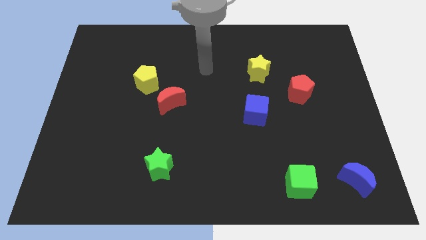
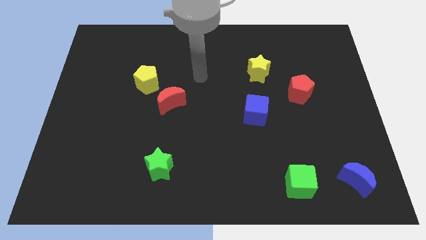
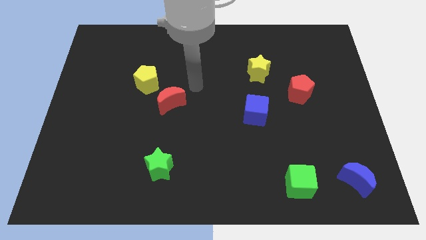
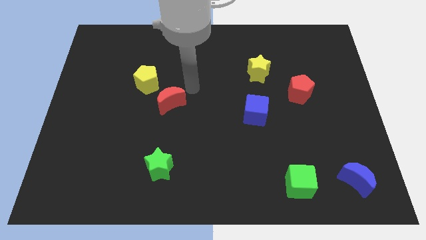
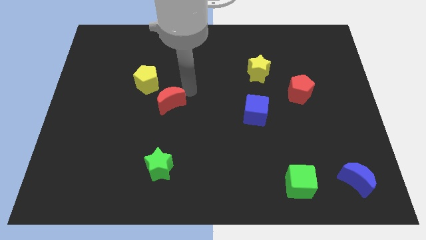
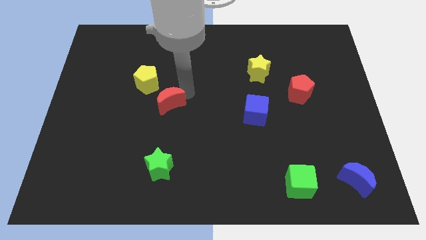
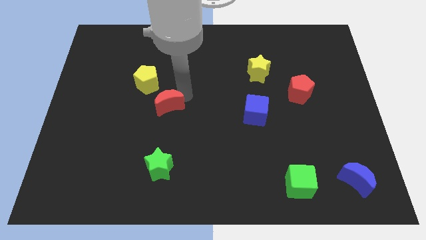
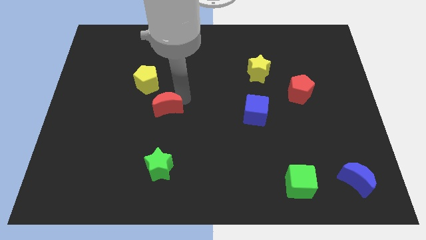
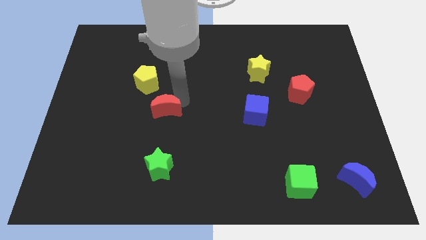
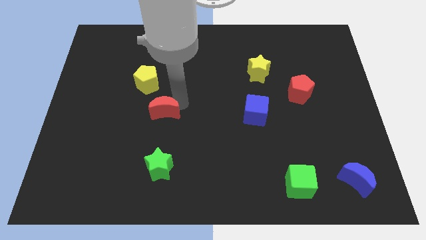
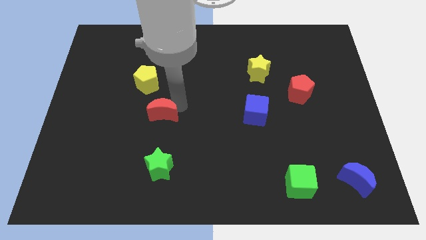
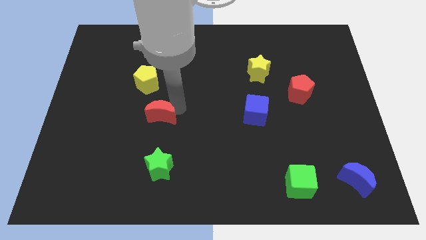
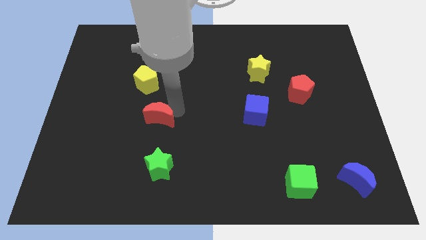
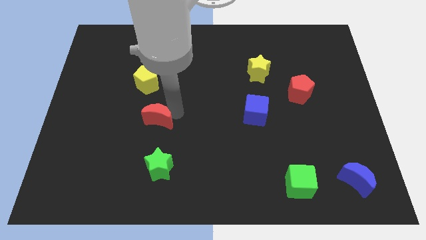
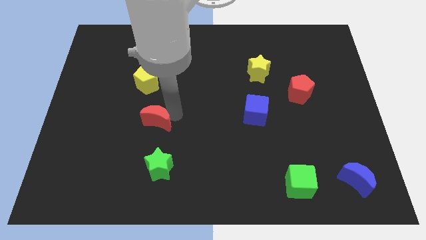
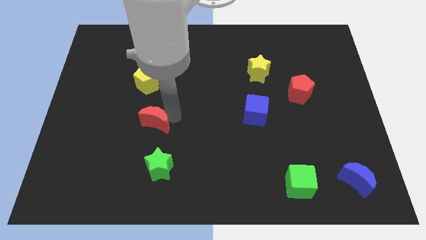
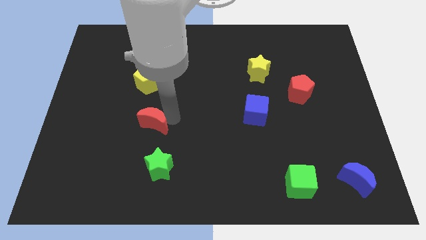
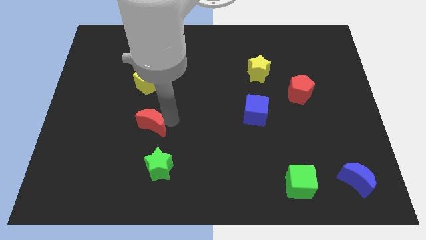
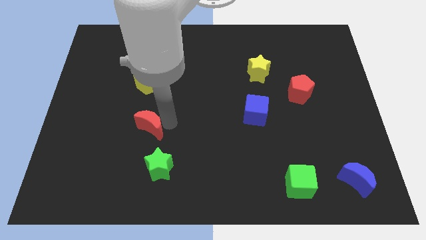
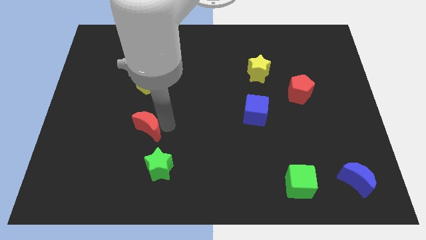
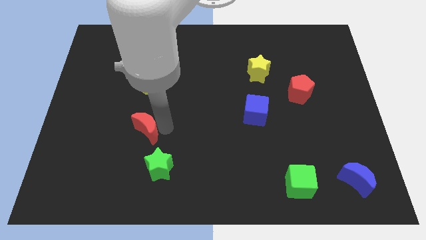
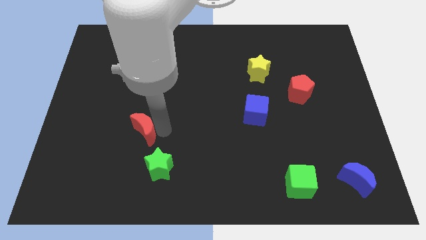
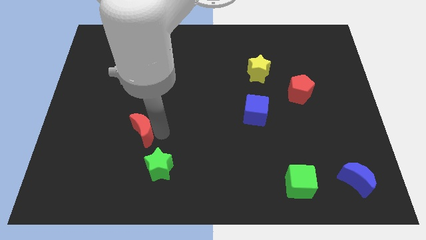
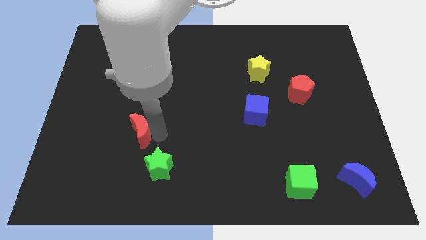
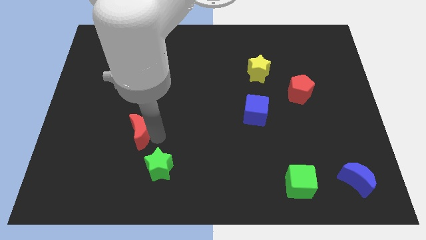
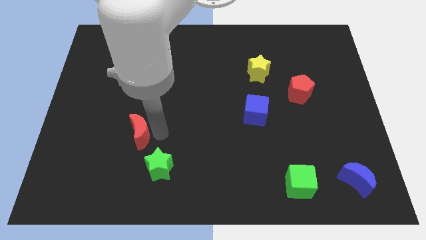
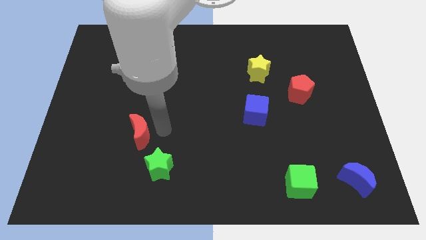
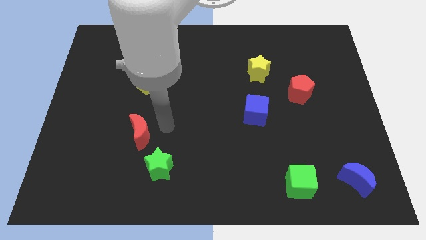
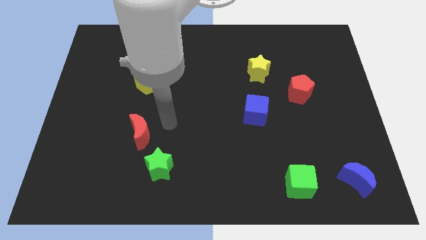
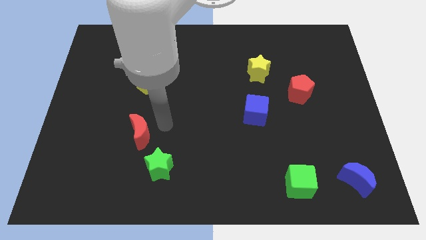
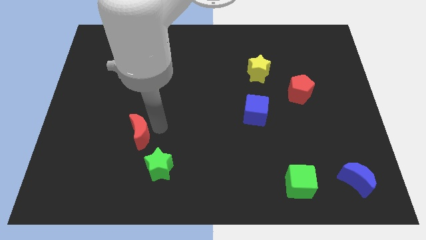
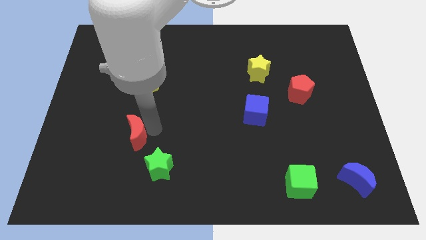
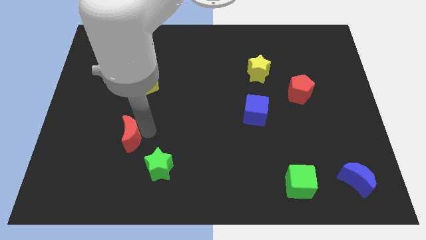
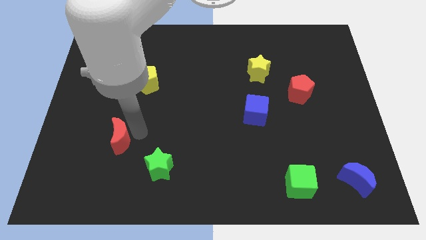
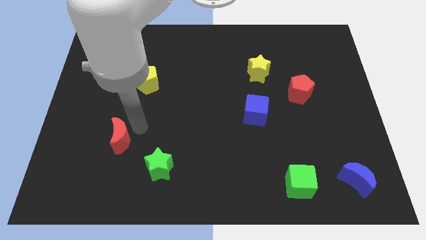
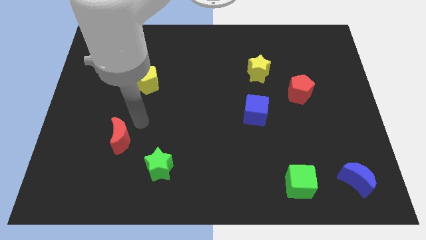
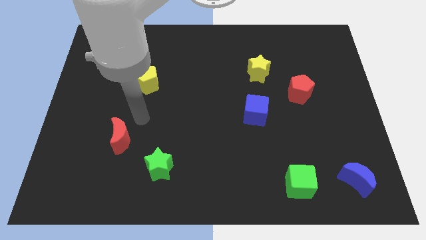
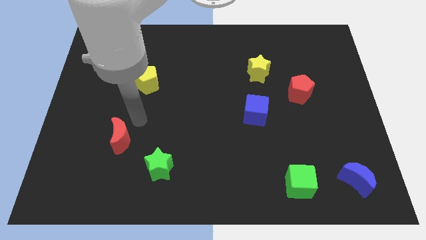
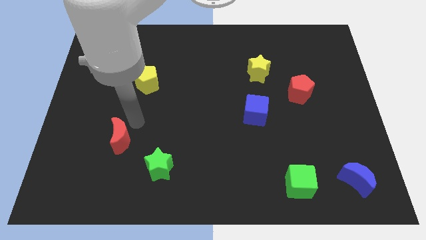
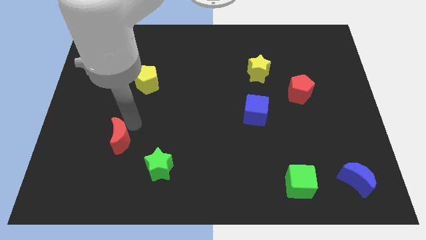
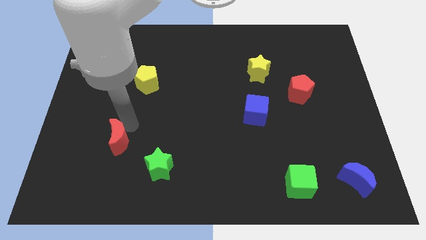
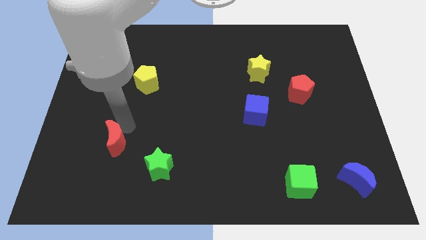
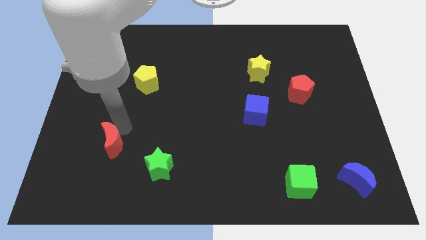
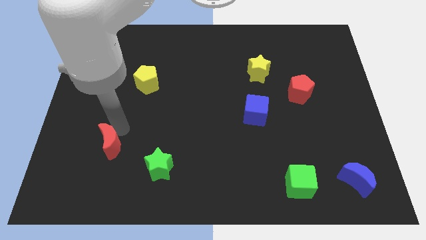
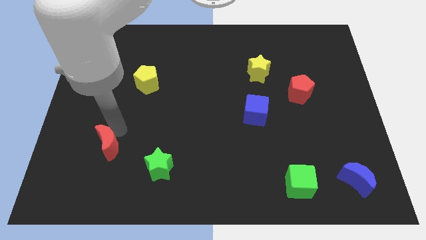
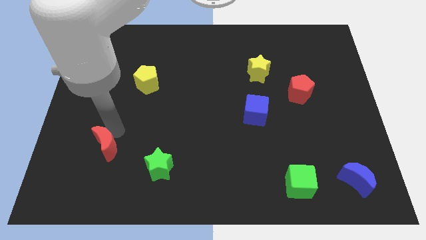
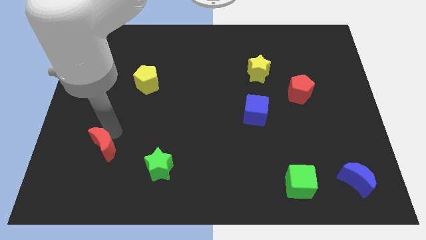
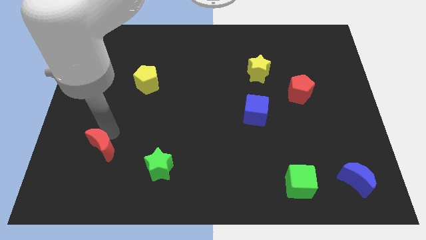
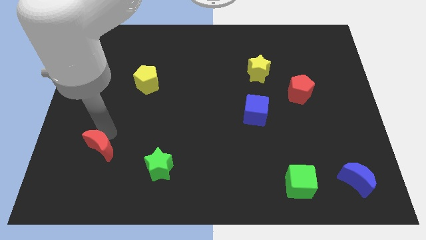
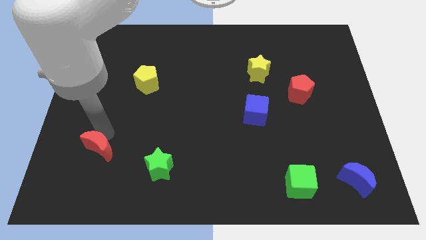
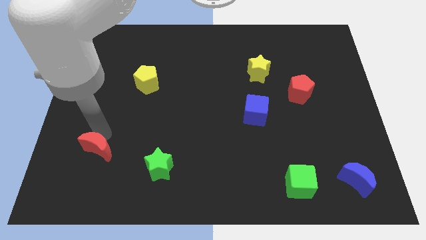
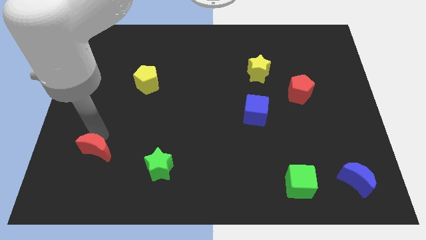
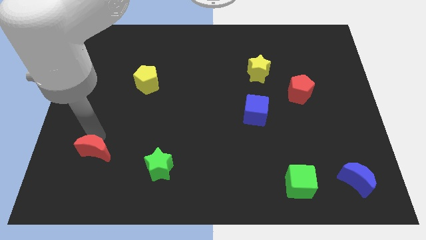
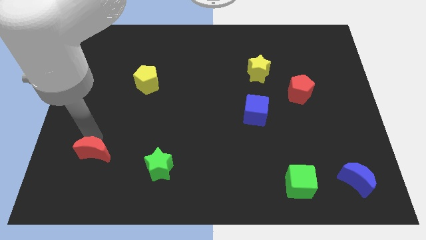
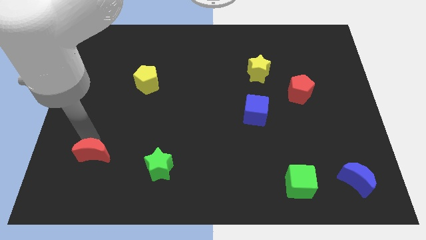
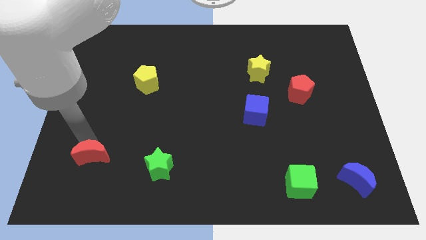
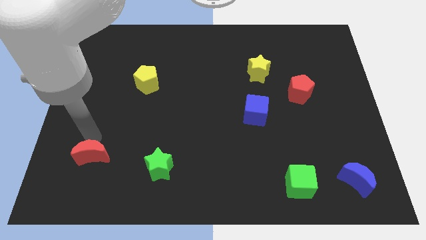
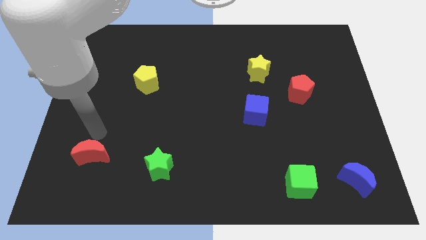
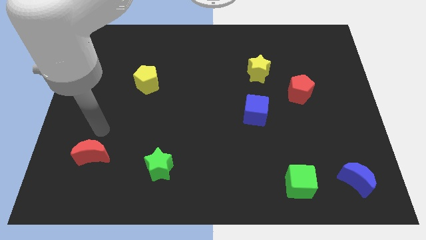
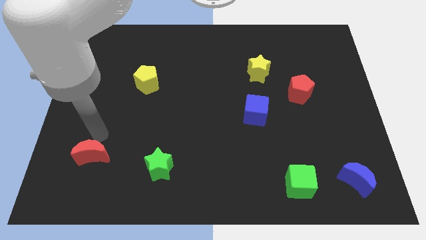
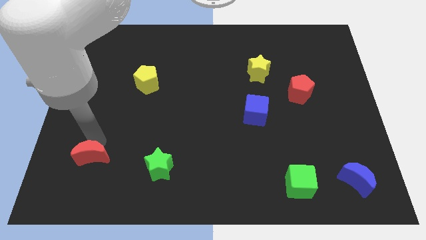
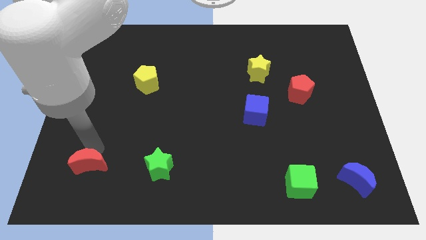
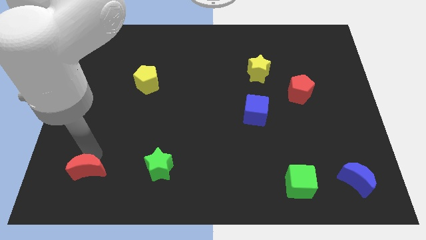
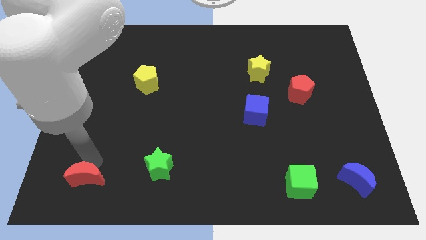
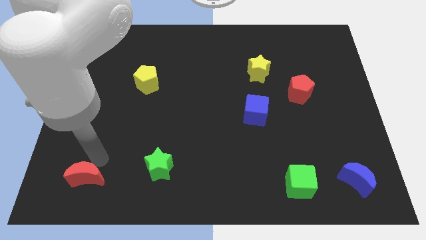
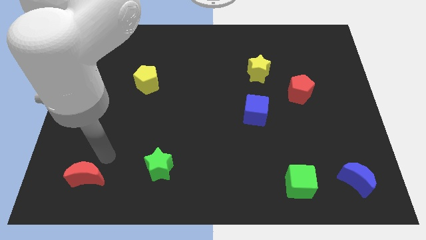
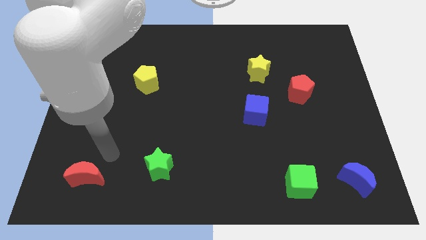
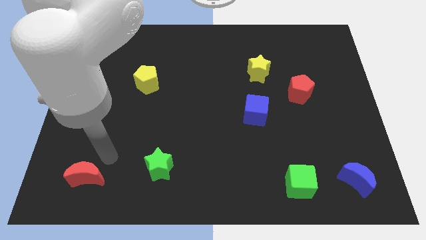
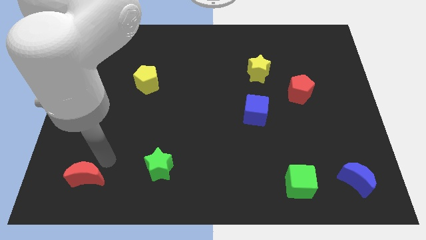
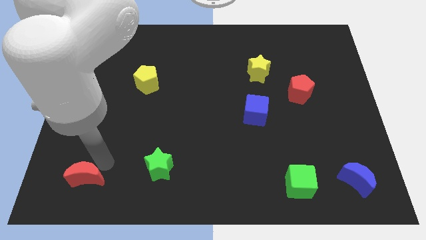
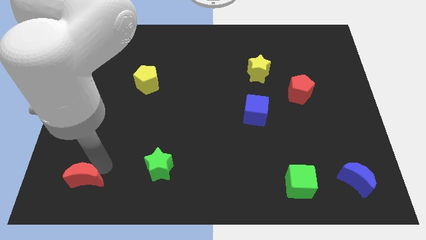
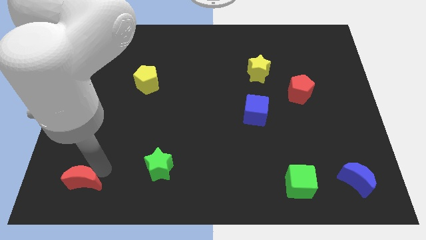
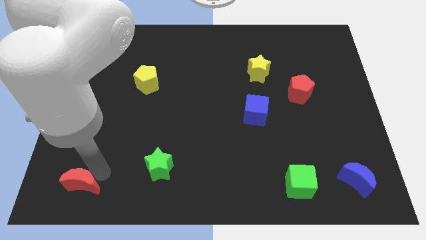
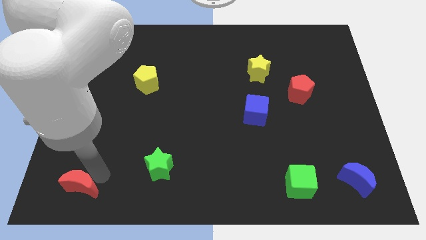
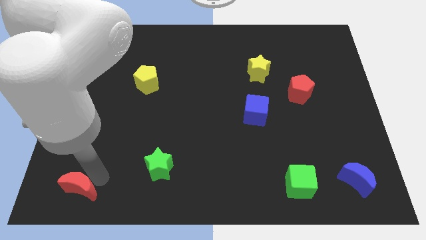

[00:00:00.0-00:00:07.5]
slide the red moon to the bottom left corner

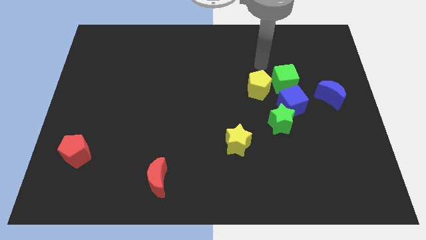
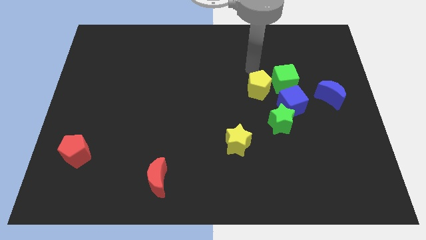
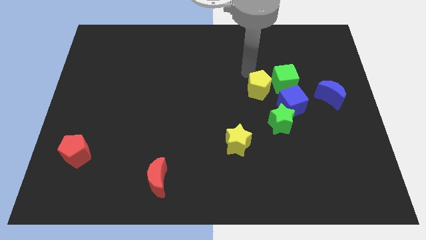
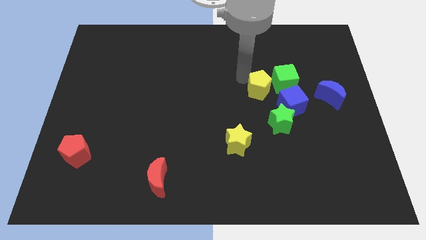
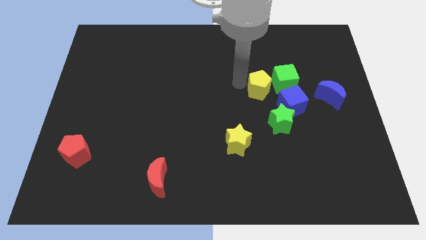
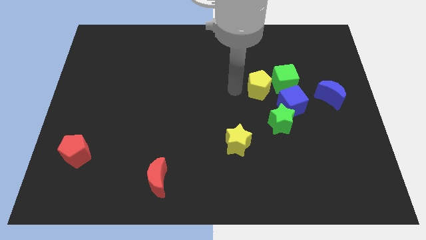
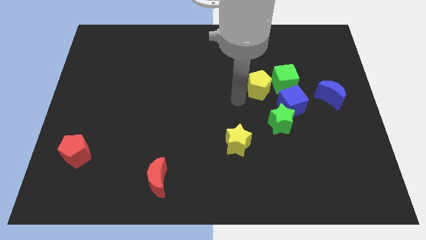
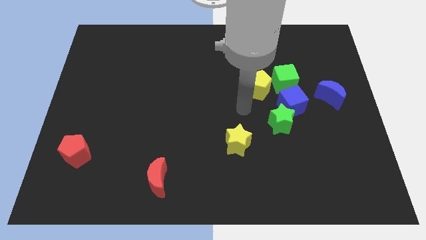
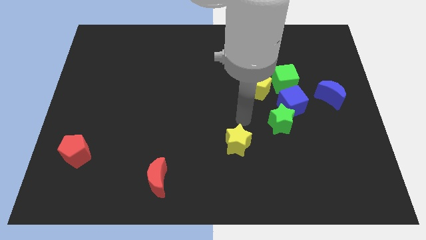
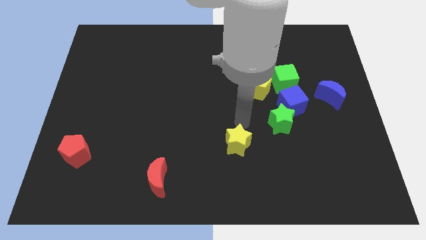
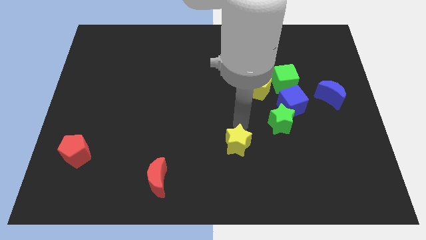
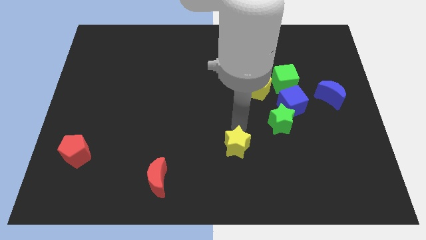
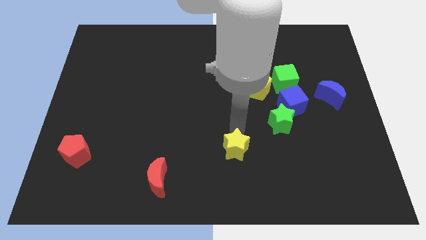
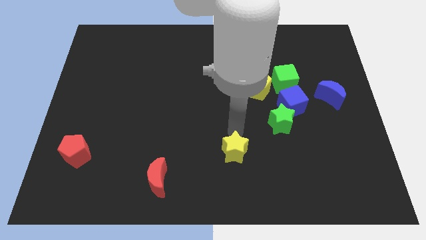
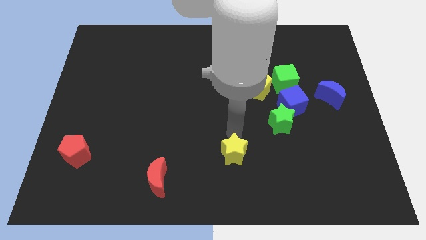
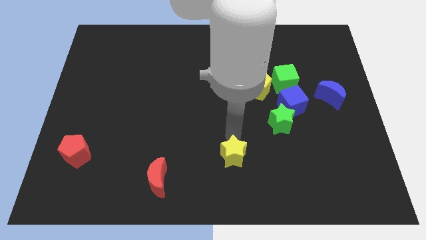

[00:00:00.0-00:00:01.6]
move the yellow star to the bottom
